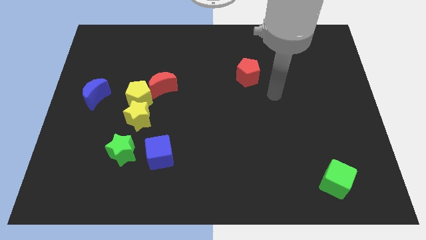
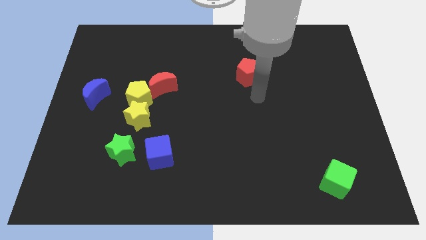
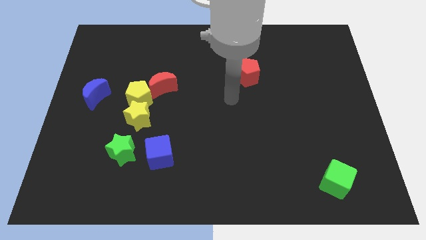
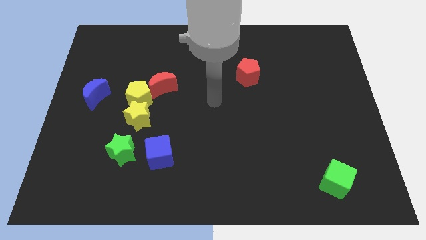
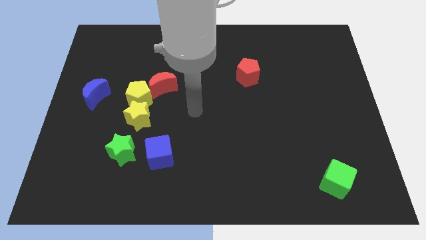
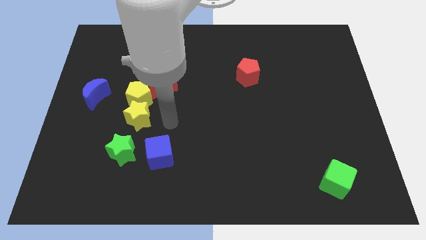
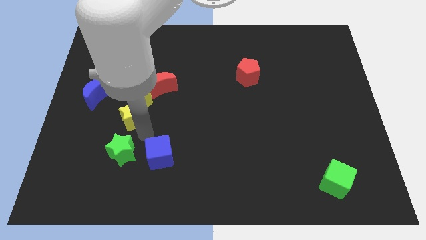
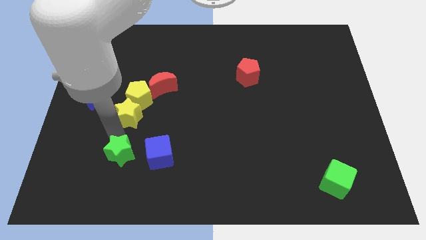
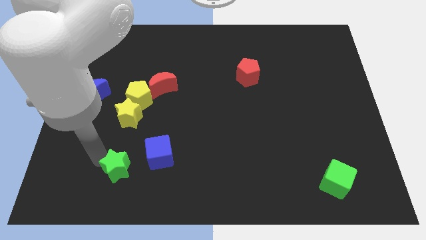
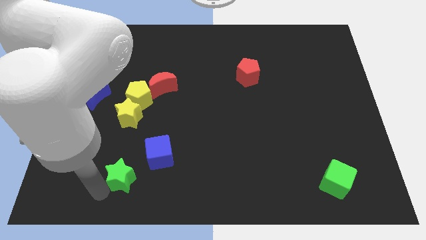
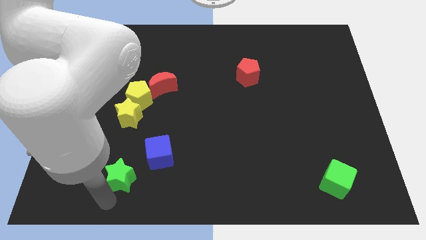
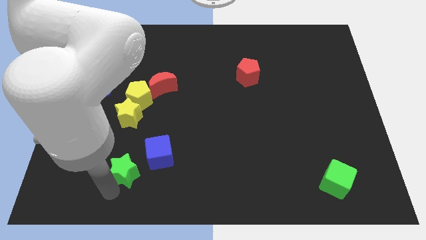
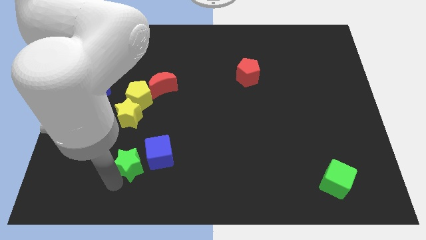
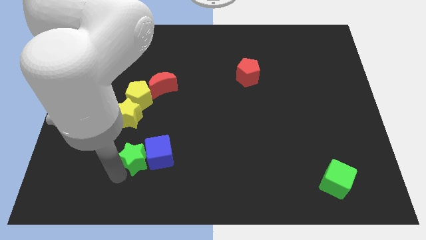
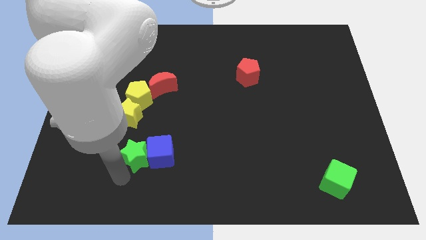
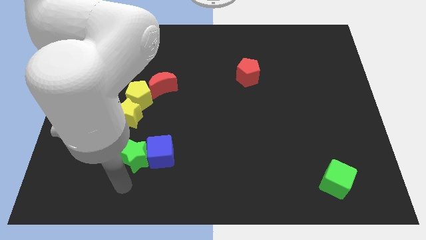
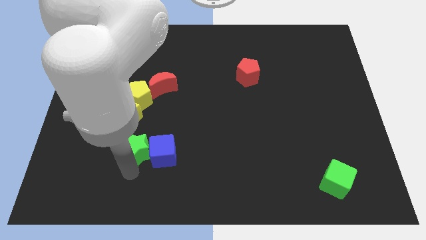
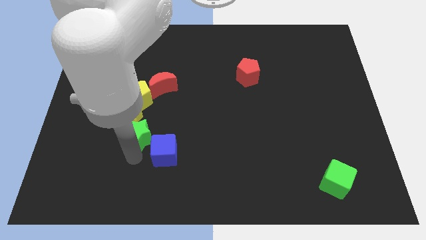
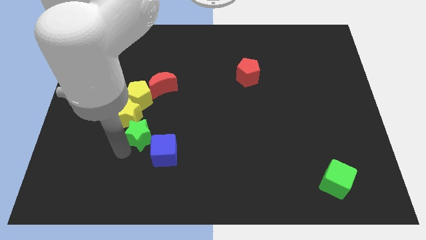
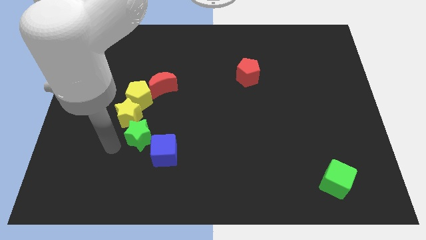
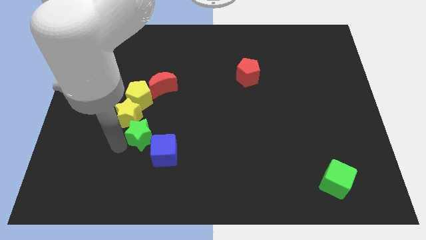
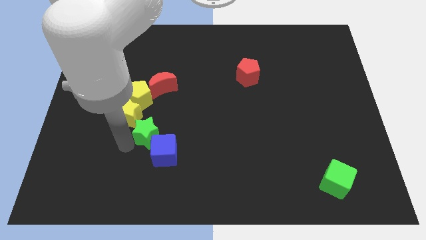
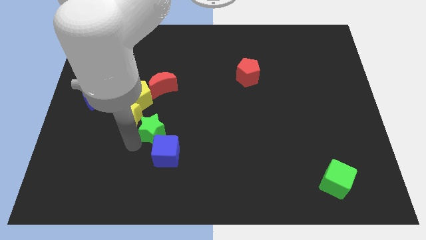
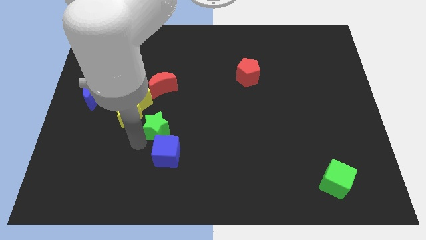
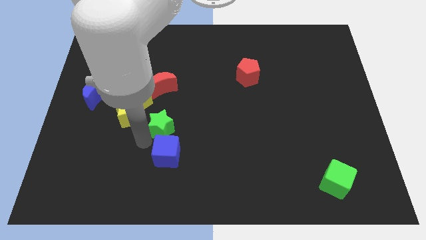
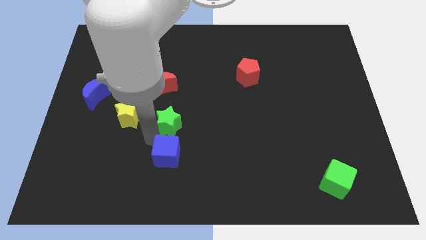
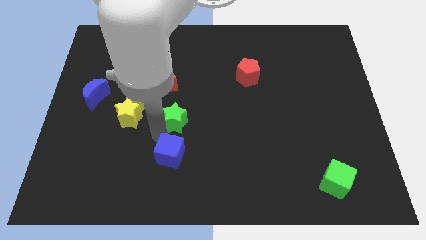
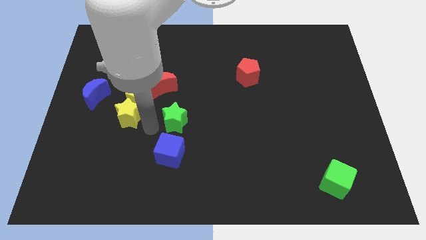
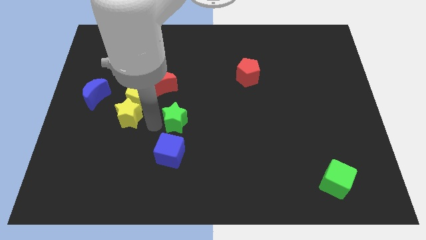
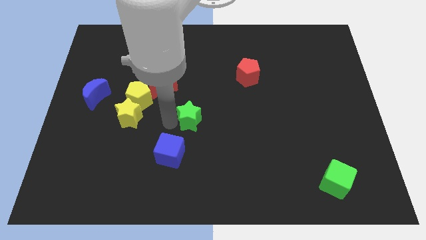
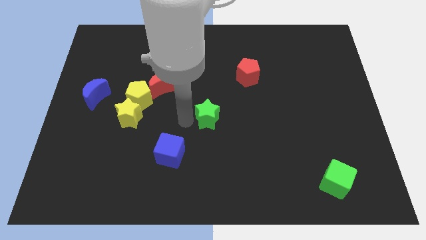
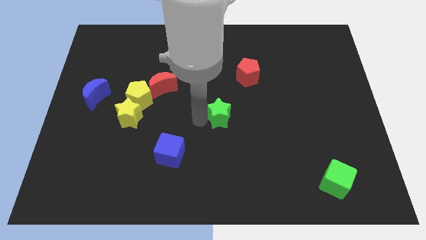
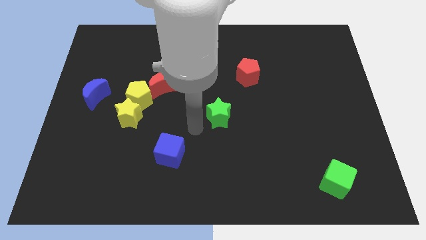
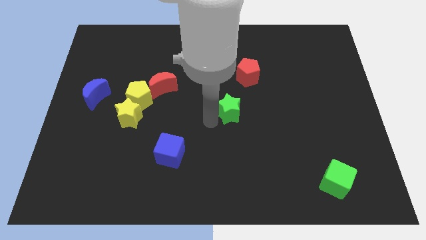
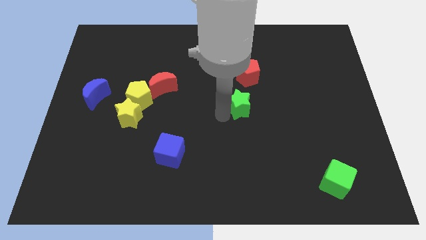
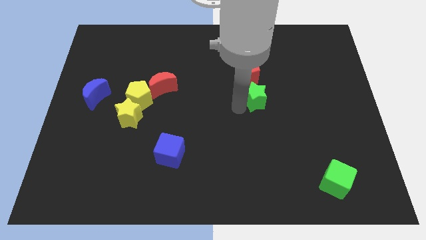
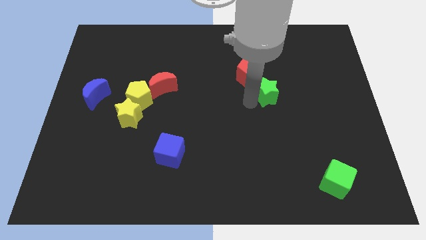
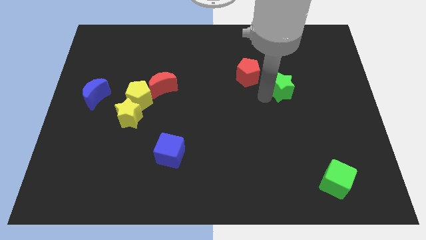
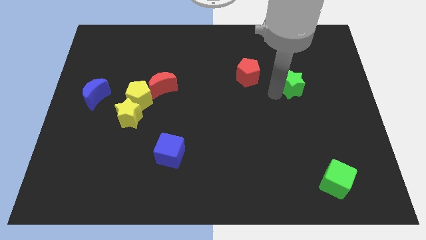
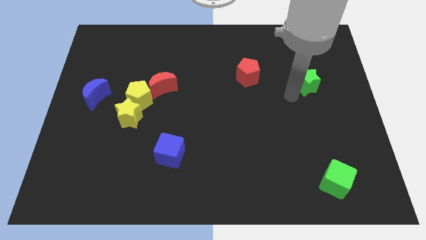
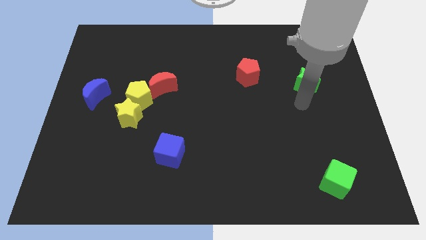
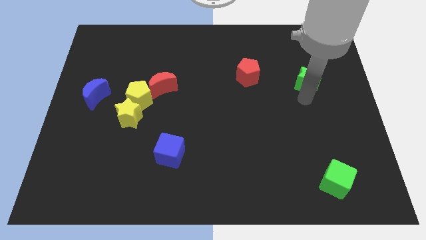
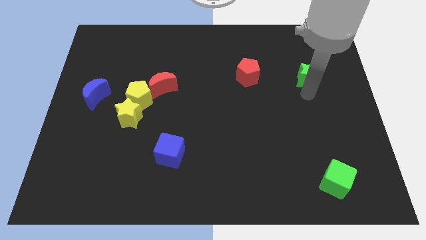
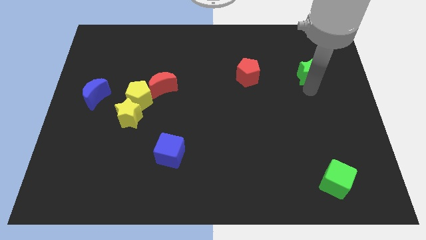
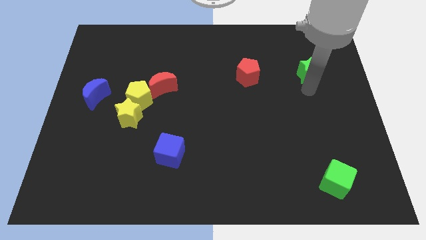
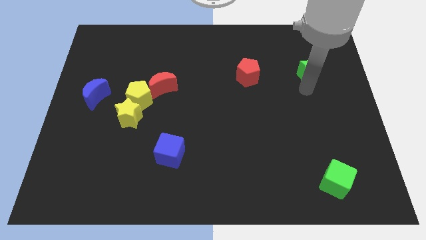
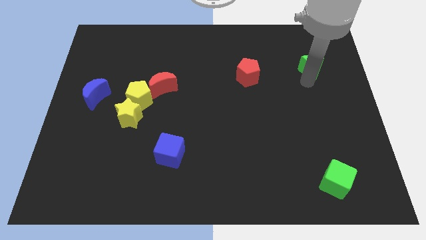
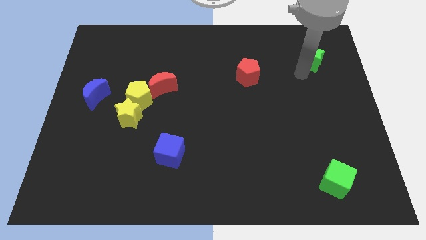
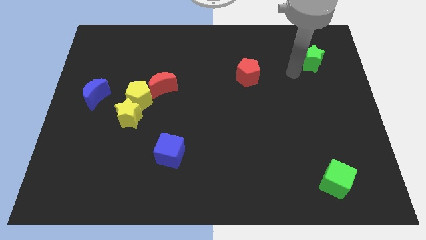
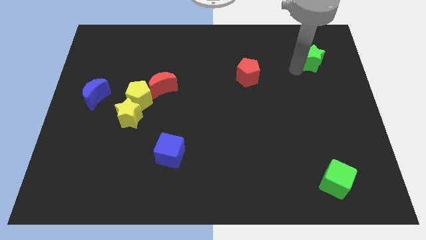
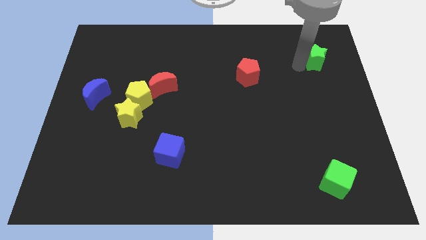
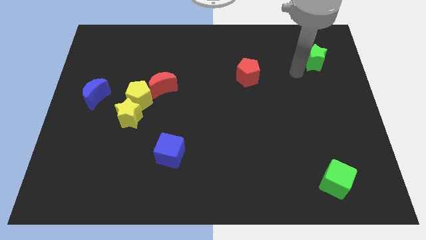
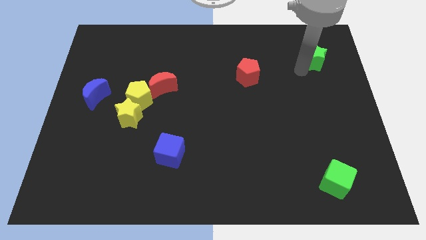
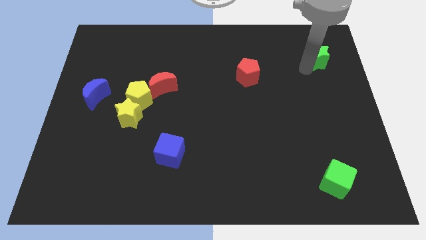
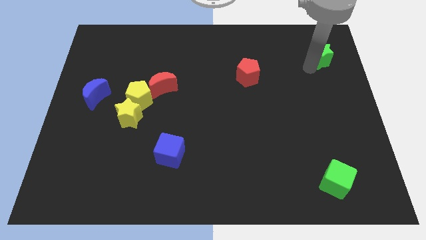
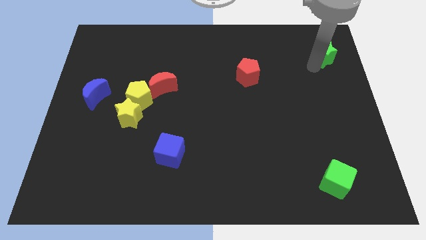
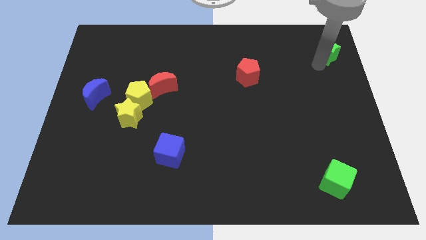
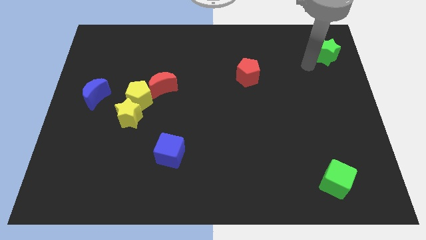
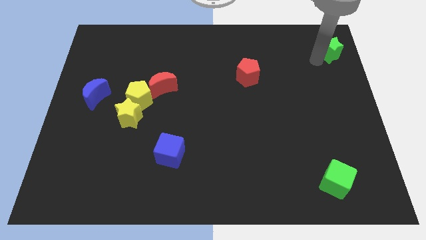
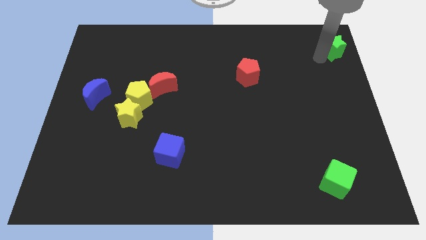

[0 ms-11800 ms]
slide the green star to the top right
